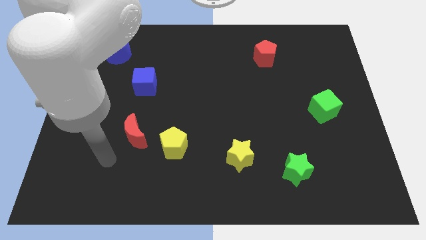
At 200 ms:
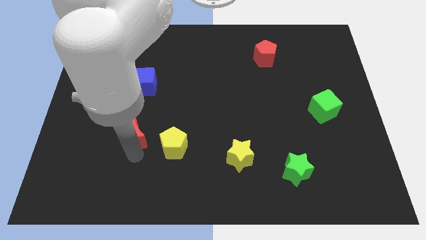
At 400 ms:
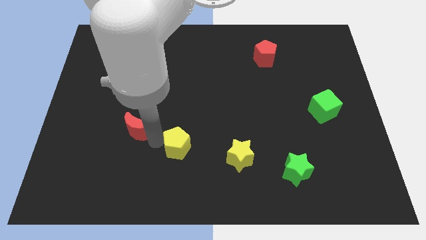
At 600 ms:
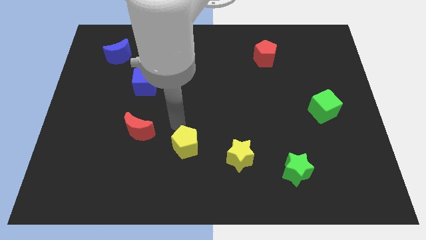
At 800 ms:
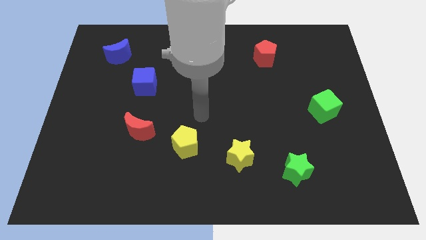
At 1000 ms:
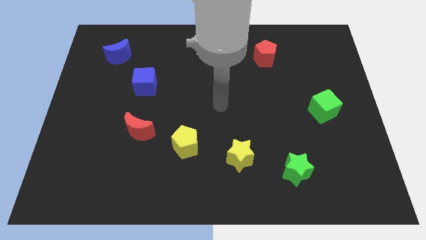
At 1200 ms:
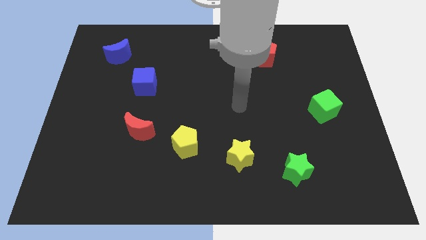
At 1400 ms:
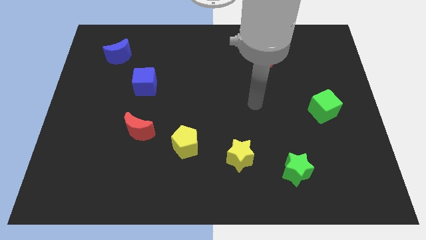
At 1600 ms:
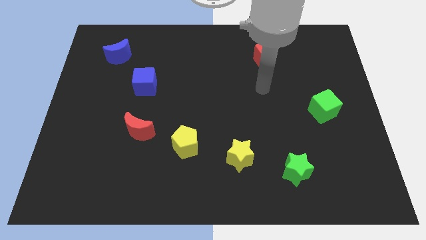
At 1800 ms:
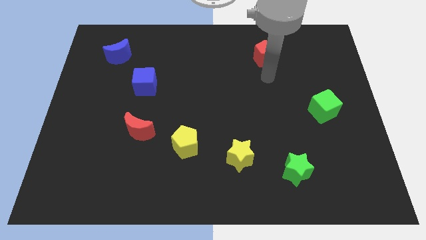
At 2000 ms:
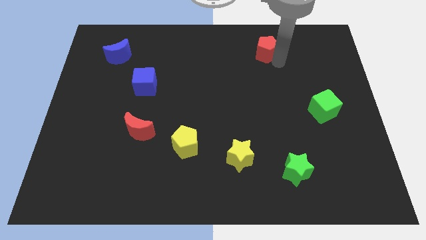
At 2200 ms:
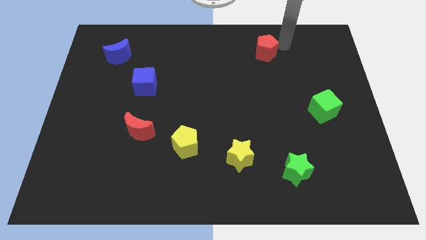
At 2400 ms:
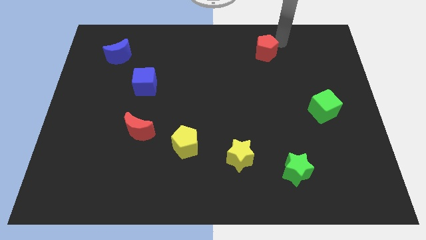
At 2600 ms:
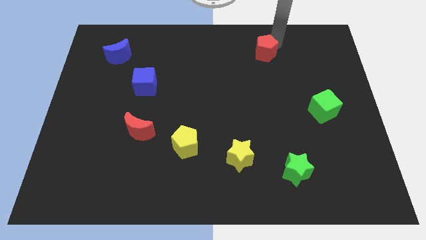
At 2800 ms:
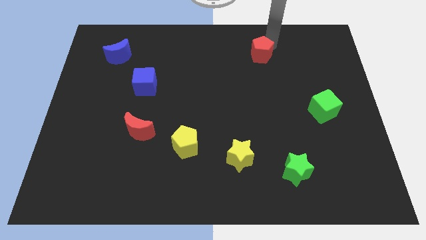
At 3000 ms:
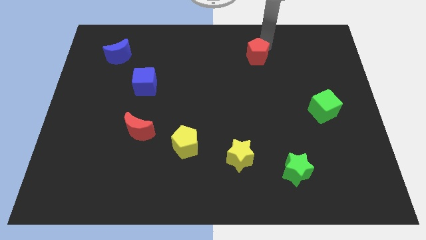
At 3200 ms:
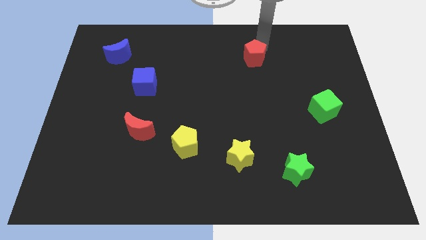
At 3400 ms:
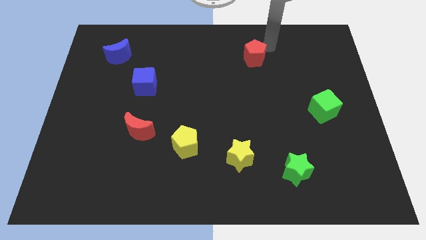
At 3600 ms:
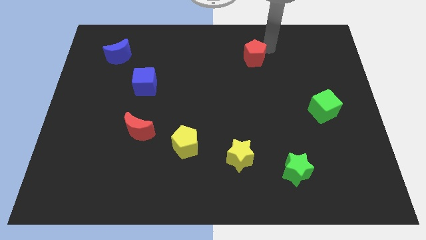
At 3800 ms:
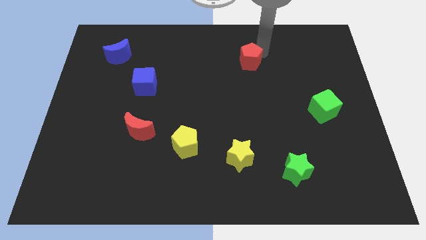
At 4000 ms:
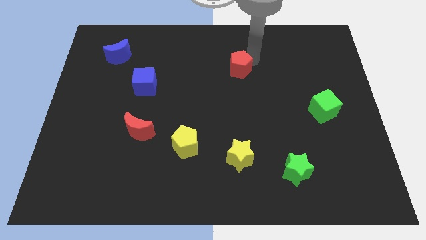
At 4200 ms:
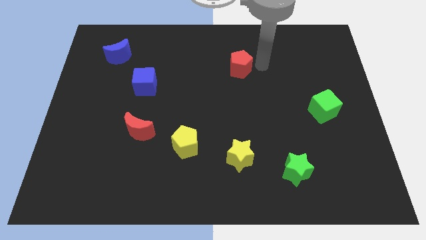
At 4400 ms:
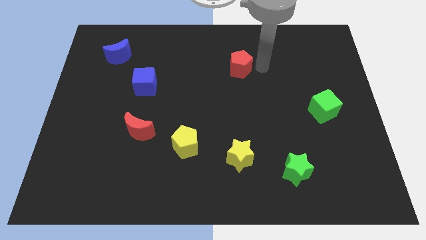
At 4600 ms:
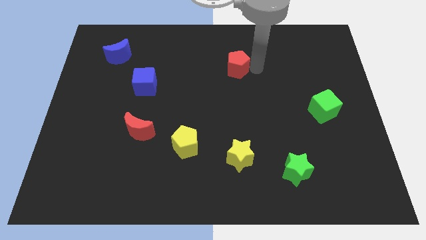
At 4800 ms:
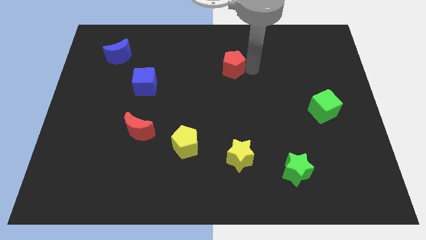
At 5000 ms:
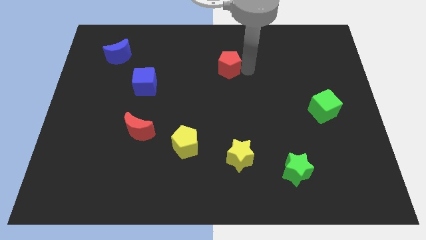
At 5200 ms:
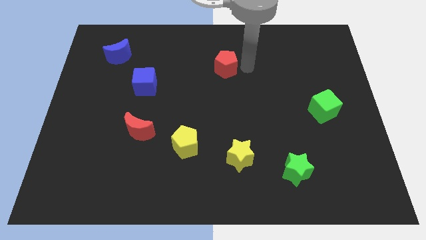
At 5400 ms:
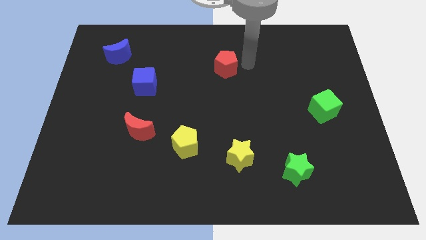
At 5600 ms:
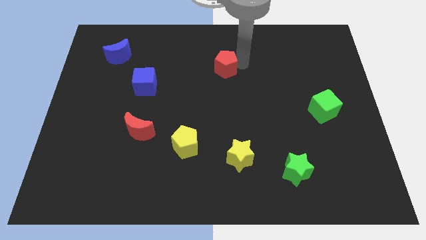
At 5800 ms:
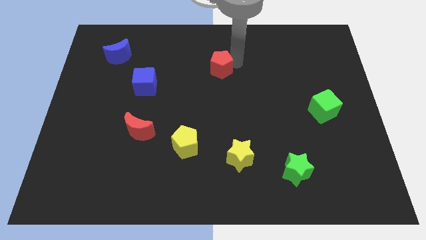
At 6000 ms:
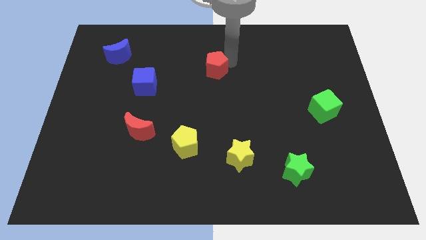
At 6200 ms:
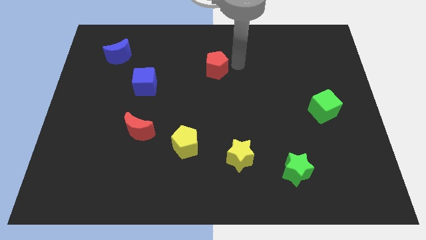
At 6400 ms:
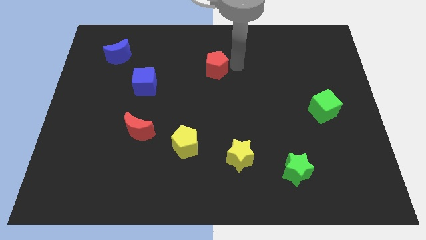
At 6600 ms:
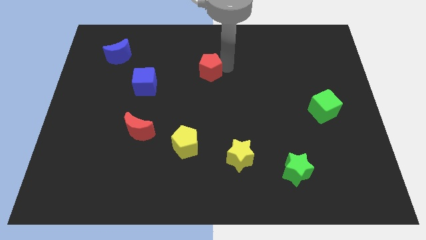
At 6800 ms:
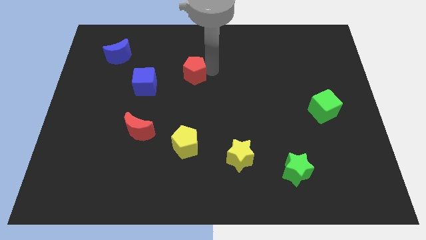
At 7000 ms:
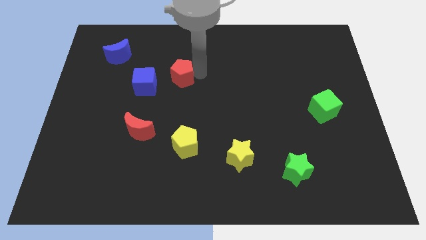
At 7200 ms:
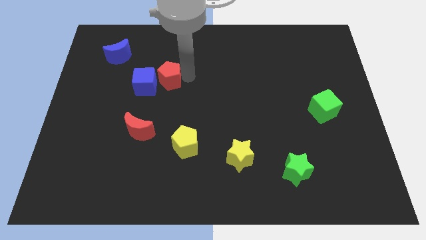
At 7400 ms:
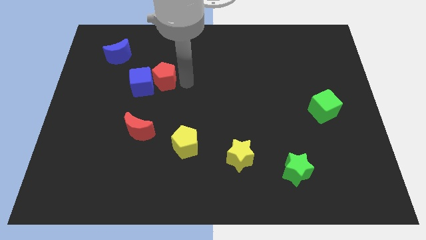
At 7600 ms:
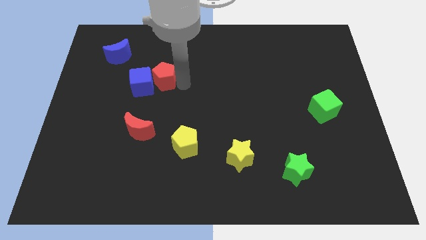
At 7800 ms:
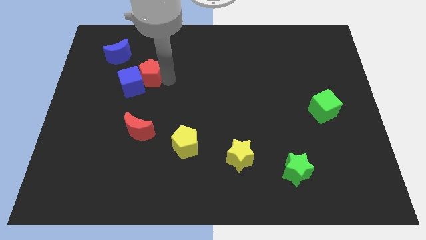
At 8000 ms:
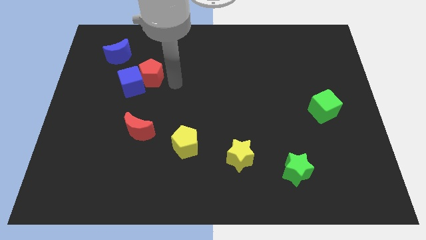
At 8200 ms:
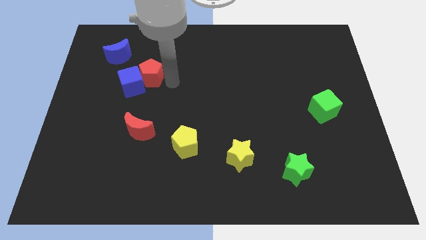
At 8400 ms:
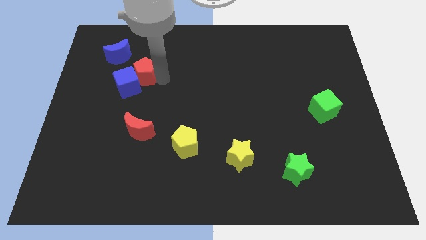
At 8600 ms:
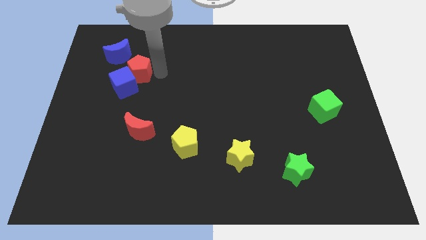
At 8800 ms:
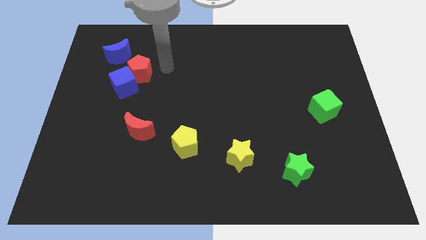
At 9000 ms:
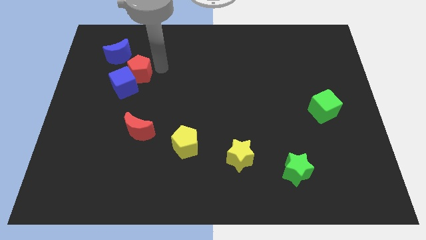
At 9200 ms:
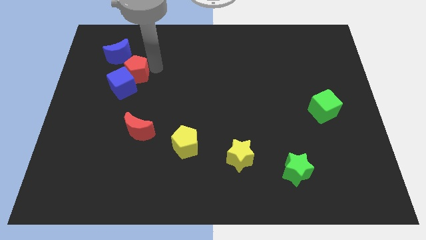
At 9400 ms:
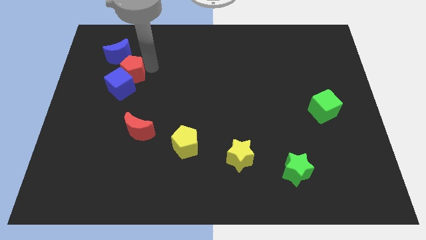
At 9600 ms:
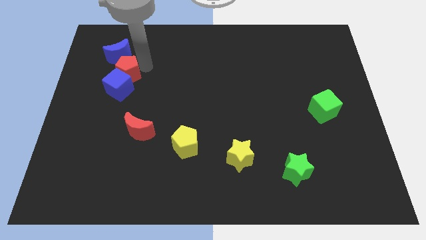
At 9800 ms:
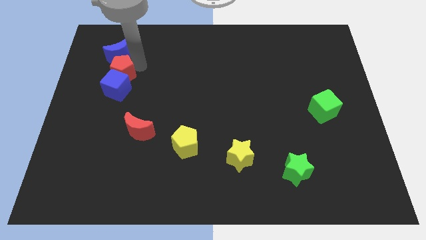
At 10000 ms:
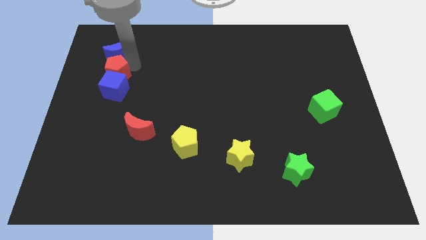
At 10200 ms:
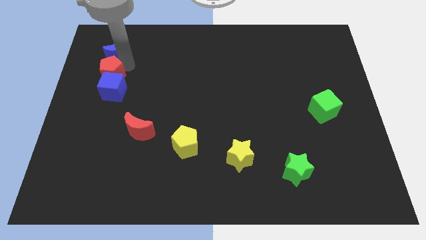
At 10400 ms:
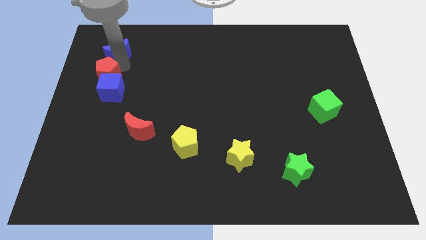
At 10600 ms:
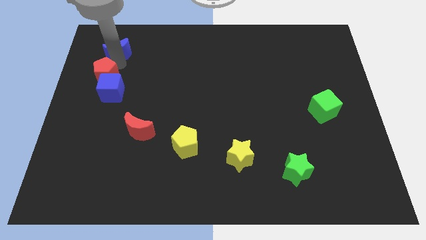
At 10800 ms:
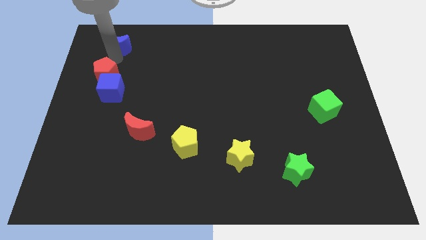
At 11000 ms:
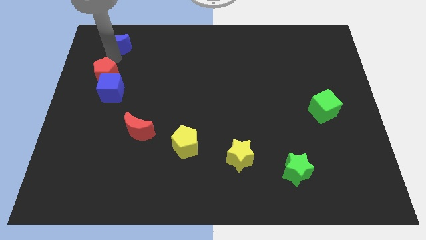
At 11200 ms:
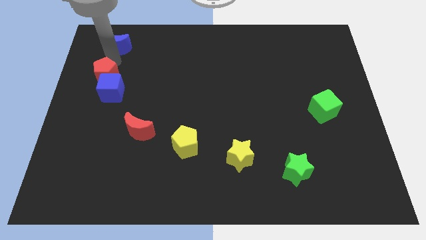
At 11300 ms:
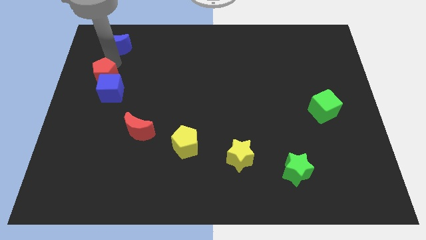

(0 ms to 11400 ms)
move the red pentagon to the left side
